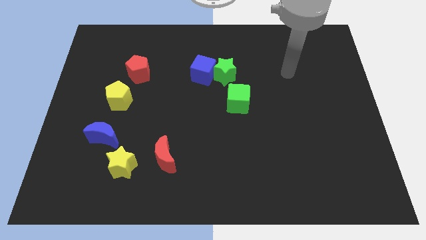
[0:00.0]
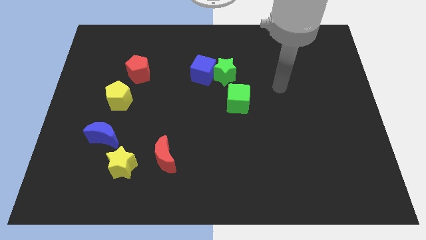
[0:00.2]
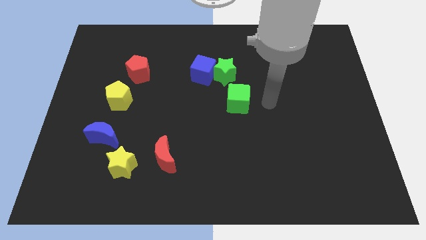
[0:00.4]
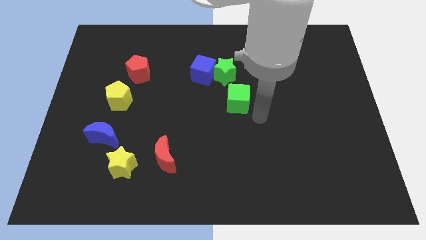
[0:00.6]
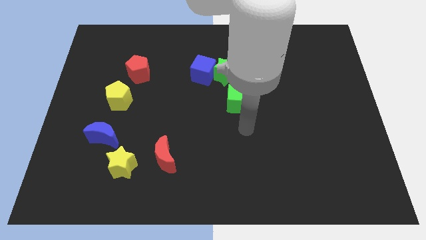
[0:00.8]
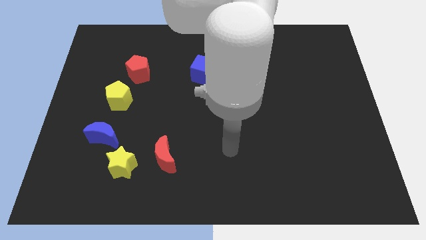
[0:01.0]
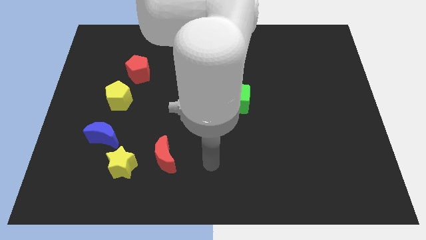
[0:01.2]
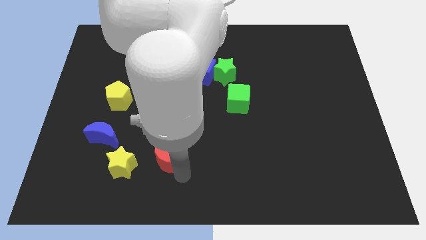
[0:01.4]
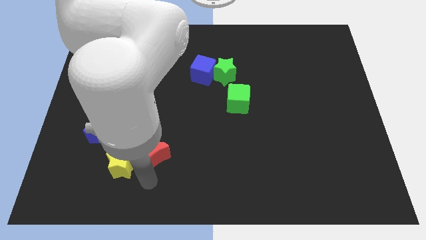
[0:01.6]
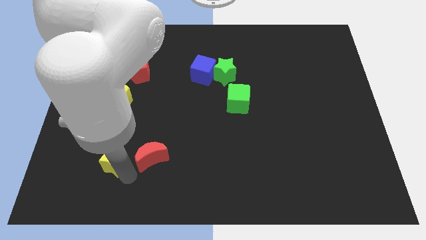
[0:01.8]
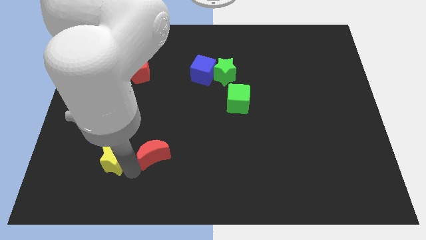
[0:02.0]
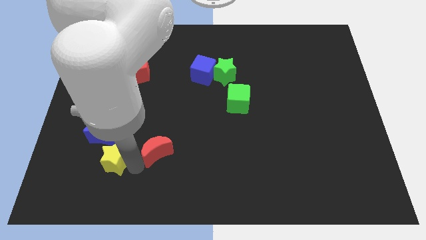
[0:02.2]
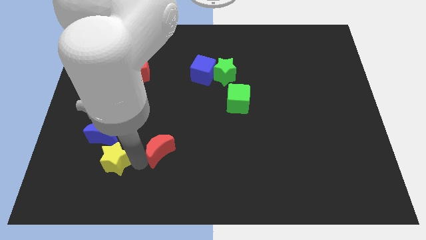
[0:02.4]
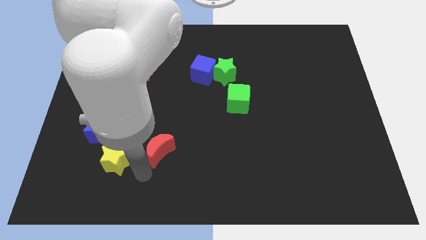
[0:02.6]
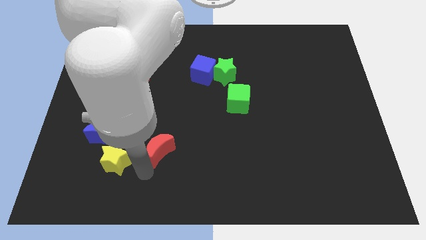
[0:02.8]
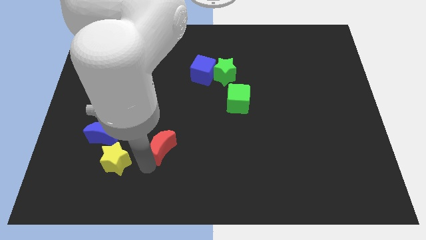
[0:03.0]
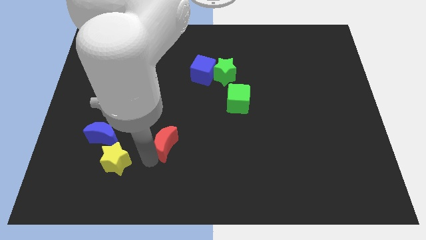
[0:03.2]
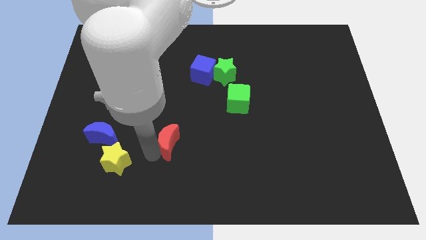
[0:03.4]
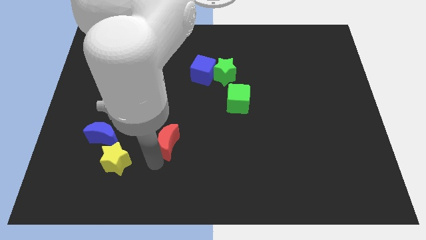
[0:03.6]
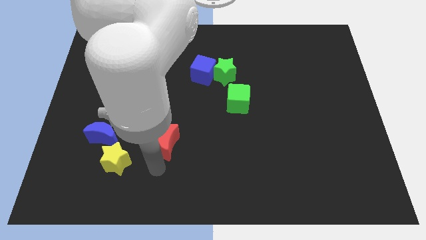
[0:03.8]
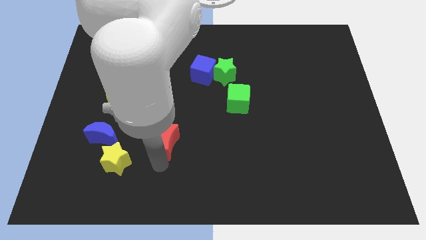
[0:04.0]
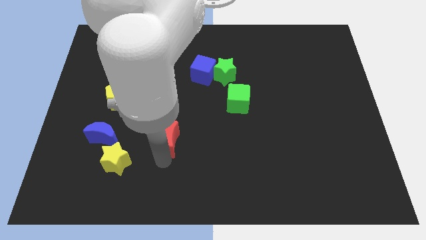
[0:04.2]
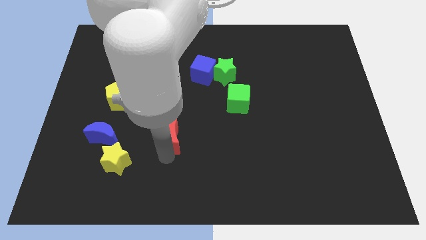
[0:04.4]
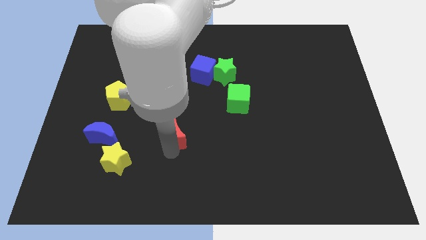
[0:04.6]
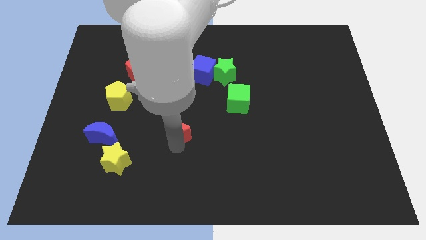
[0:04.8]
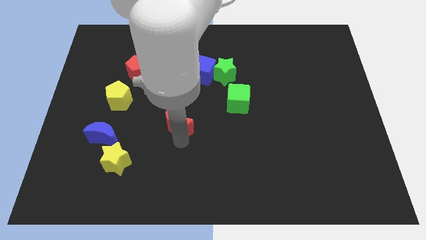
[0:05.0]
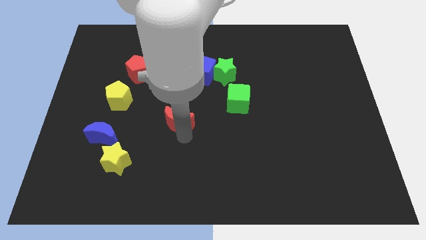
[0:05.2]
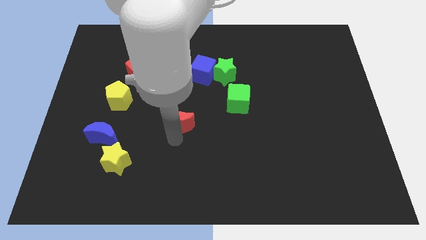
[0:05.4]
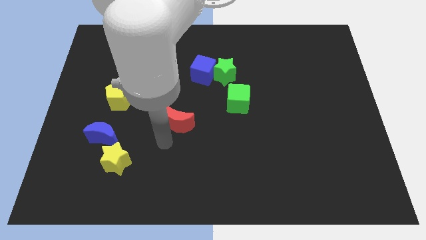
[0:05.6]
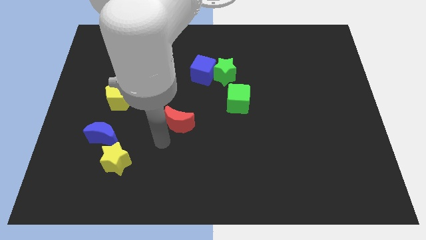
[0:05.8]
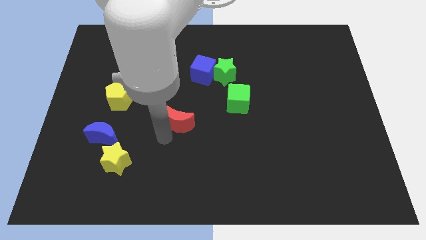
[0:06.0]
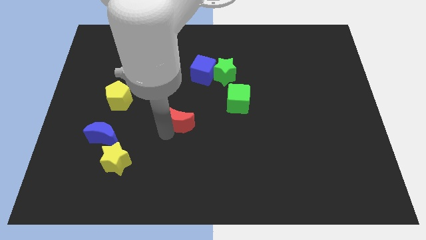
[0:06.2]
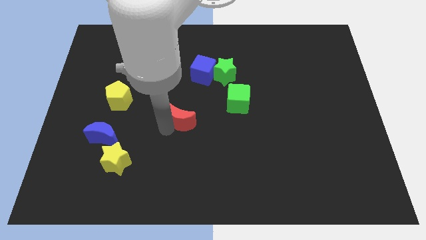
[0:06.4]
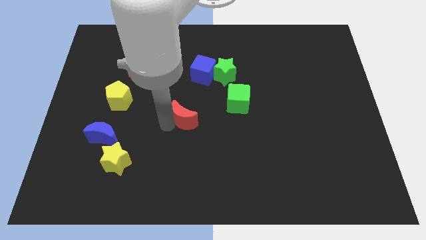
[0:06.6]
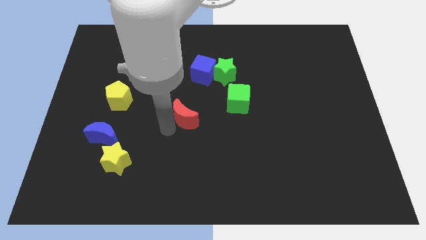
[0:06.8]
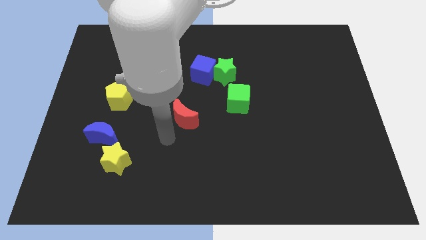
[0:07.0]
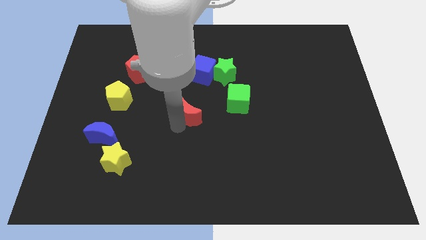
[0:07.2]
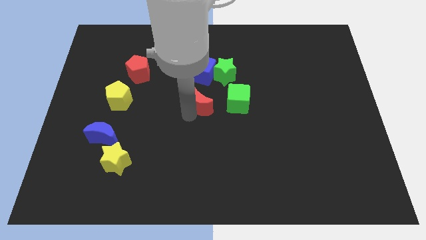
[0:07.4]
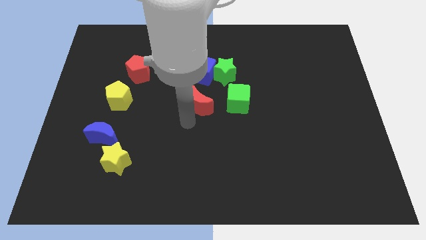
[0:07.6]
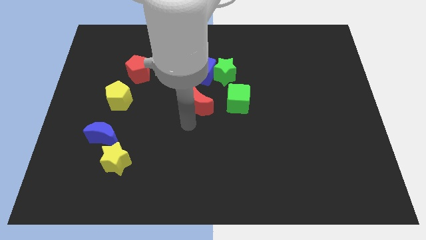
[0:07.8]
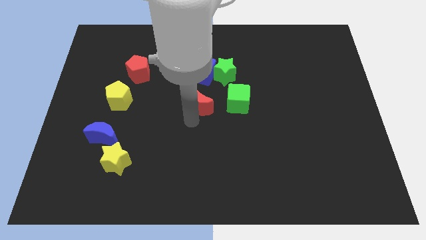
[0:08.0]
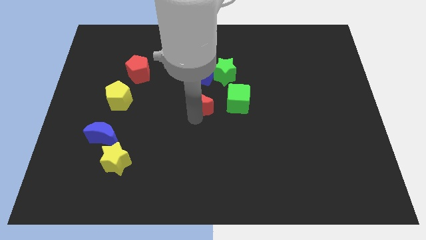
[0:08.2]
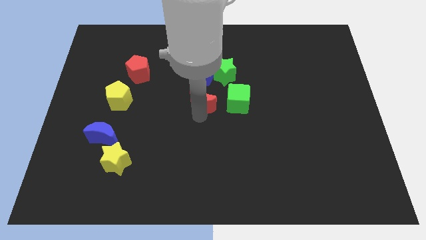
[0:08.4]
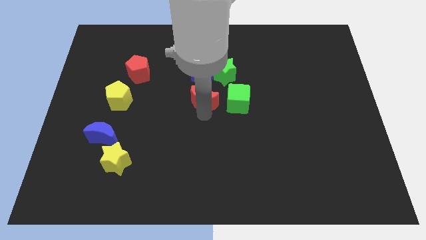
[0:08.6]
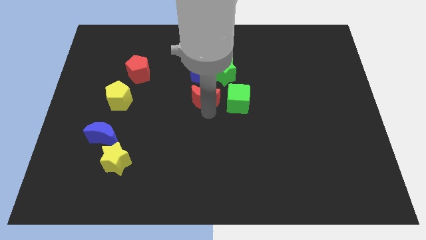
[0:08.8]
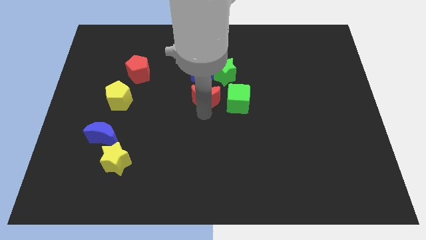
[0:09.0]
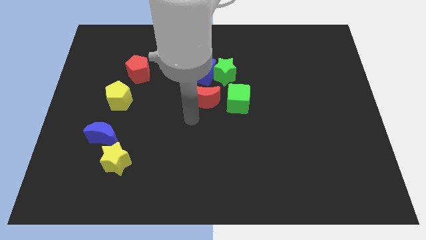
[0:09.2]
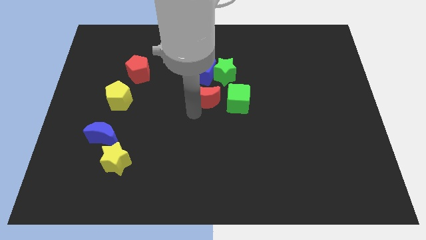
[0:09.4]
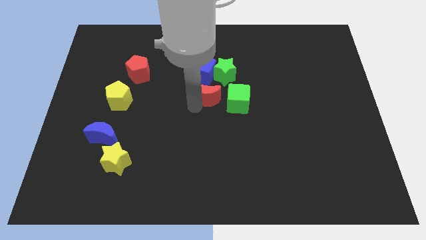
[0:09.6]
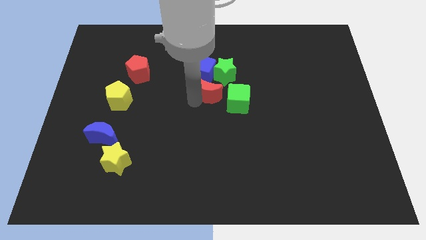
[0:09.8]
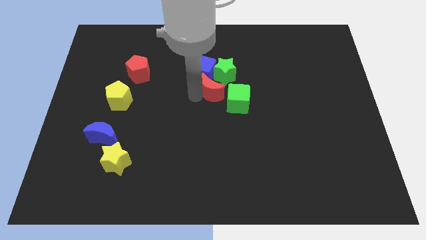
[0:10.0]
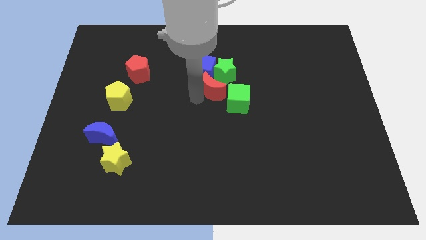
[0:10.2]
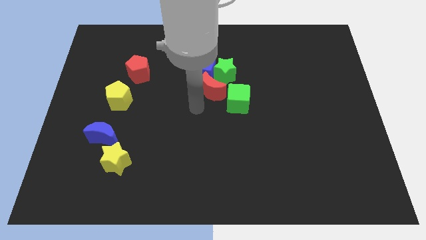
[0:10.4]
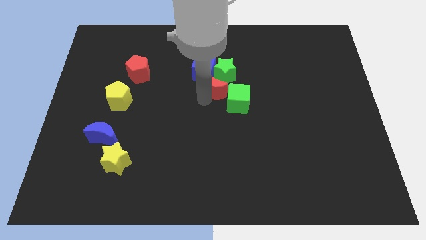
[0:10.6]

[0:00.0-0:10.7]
push the red moon to the green star

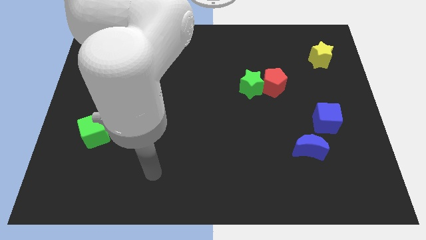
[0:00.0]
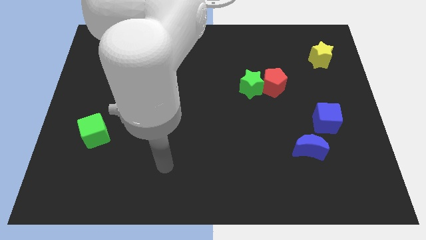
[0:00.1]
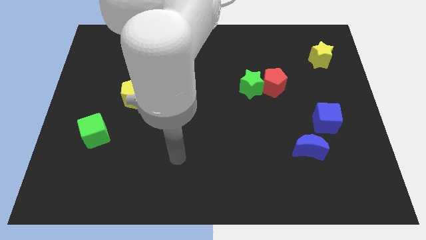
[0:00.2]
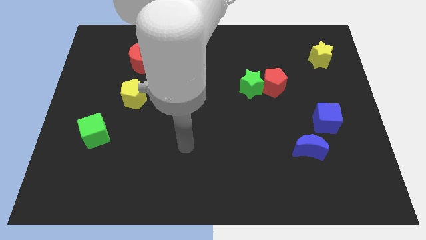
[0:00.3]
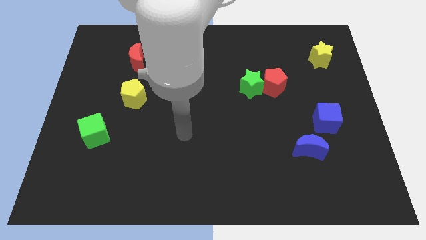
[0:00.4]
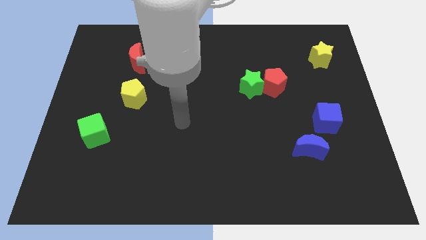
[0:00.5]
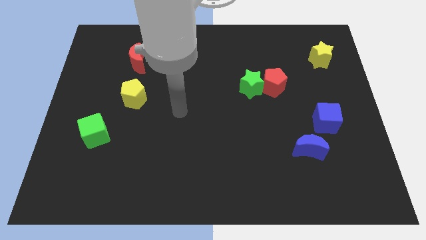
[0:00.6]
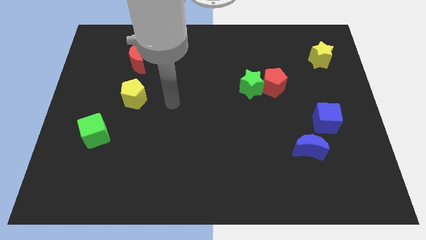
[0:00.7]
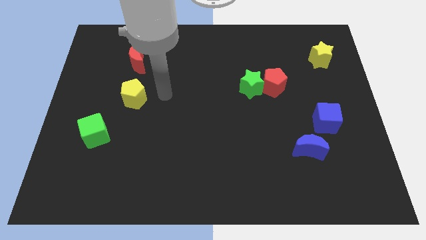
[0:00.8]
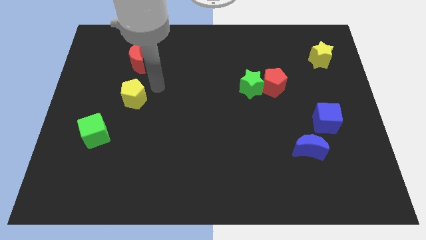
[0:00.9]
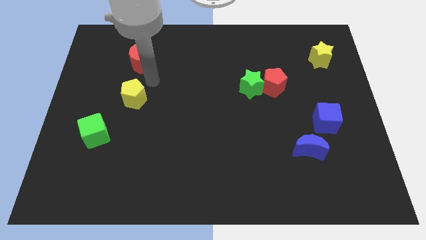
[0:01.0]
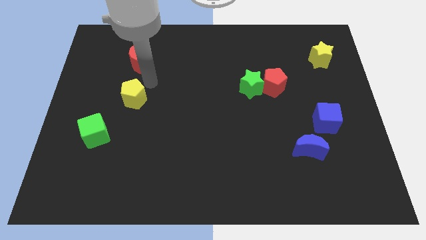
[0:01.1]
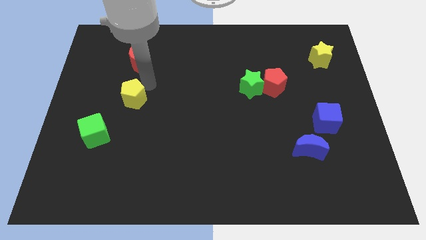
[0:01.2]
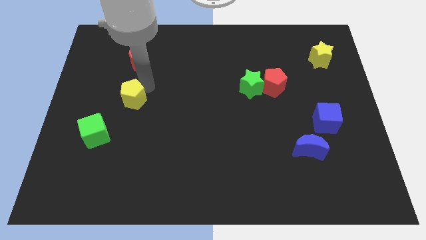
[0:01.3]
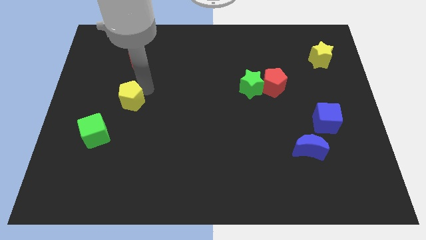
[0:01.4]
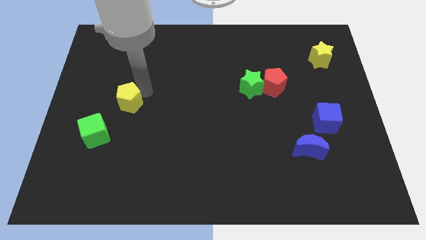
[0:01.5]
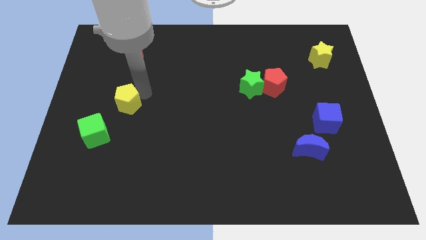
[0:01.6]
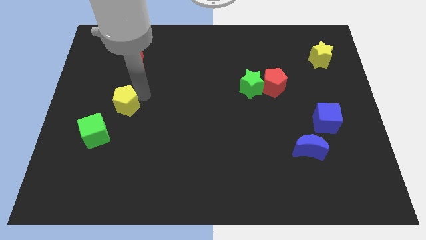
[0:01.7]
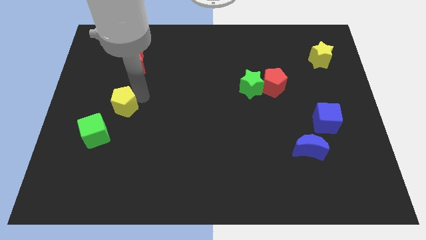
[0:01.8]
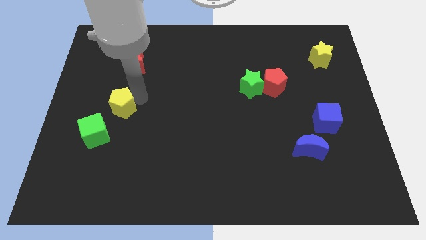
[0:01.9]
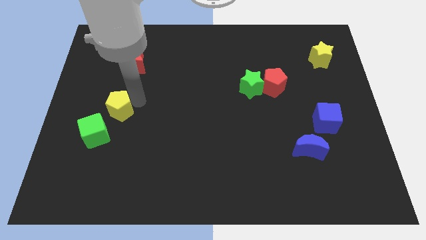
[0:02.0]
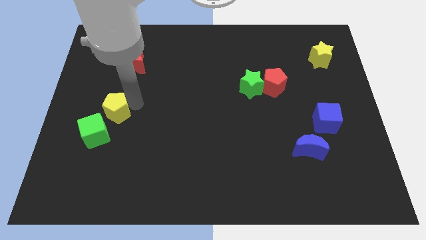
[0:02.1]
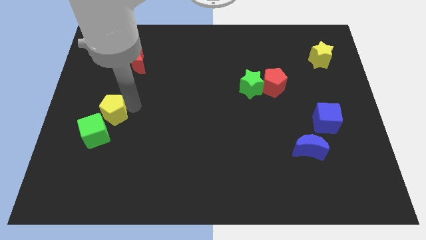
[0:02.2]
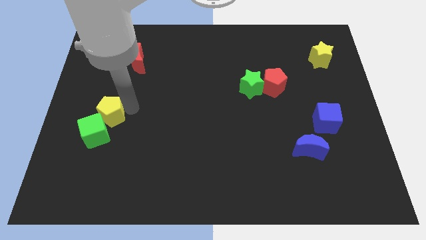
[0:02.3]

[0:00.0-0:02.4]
move the yellow pentagon to the green cube

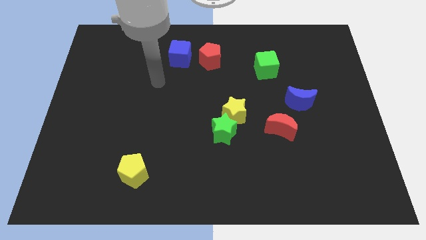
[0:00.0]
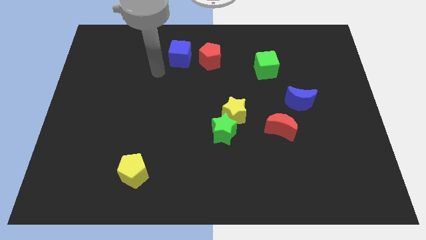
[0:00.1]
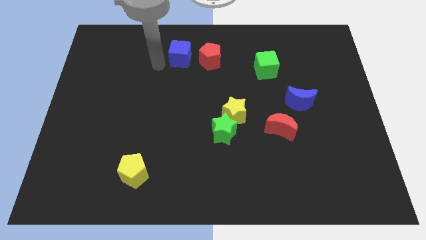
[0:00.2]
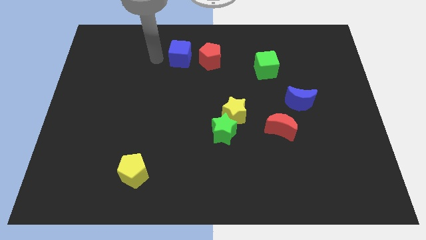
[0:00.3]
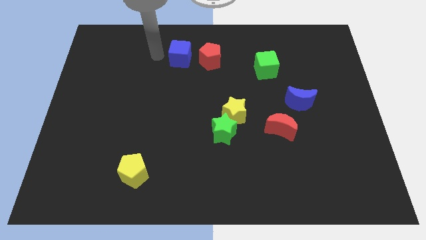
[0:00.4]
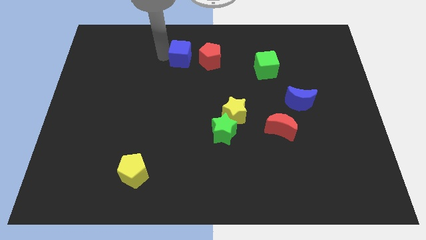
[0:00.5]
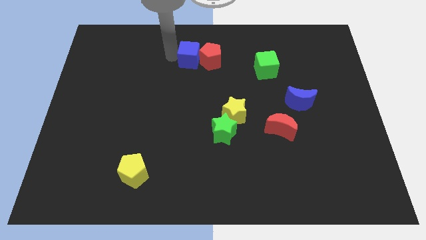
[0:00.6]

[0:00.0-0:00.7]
move the blue cube to the red pentagon
